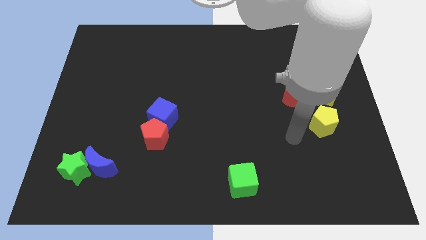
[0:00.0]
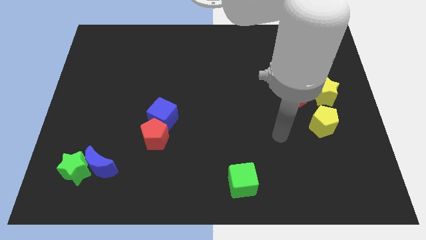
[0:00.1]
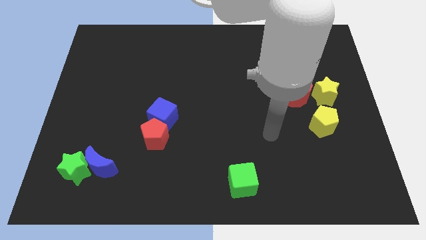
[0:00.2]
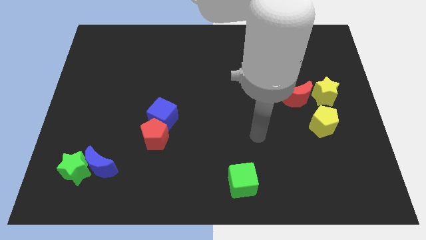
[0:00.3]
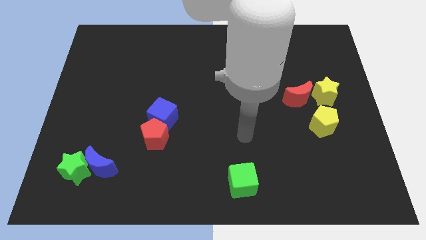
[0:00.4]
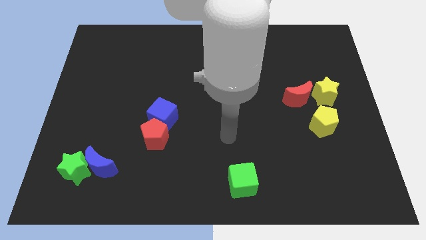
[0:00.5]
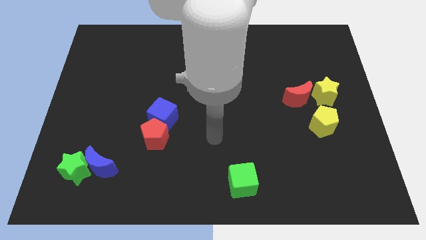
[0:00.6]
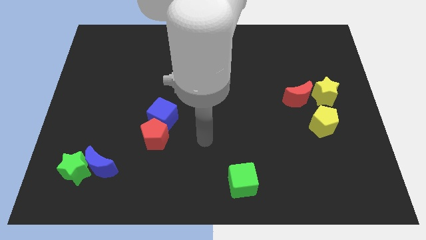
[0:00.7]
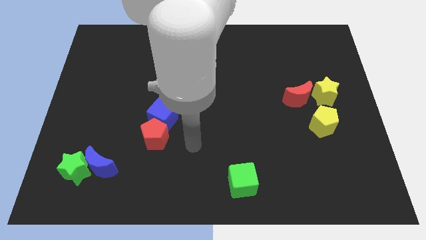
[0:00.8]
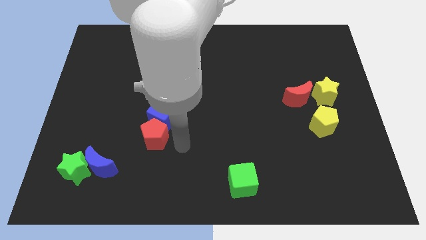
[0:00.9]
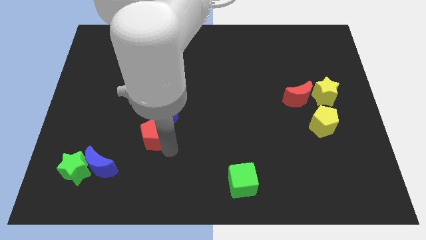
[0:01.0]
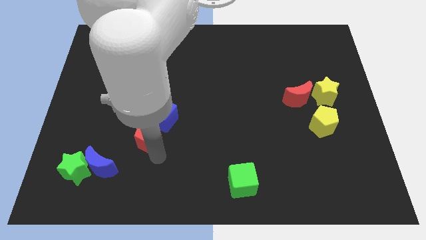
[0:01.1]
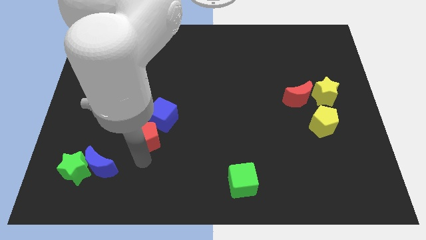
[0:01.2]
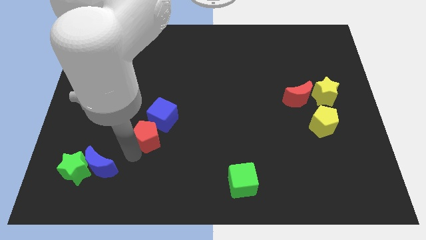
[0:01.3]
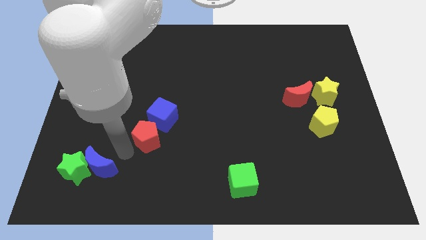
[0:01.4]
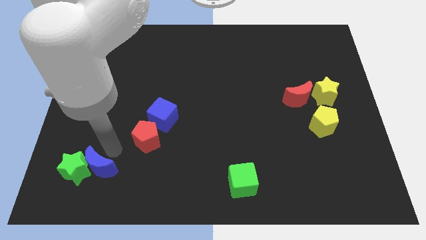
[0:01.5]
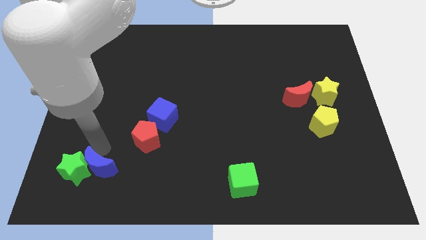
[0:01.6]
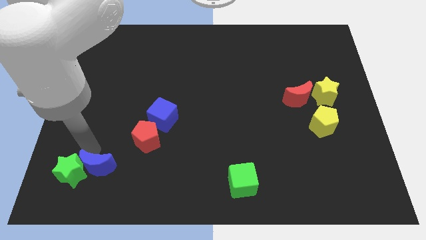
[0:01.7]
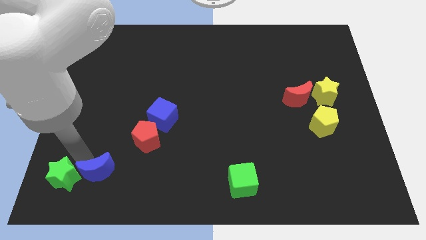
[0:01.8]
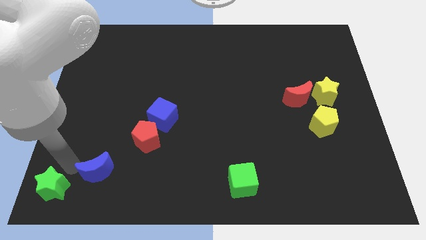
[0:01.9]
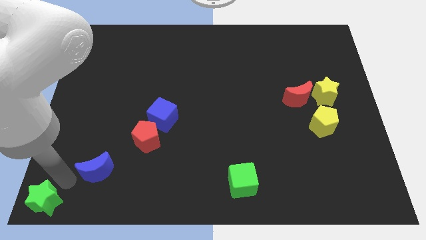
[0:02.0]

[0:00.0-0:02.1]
move the blue moon away from the green star

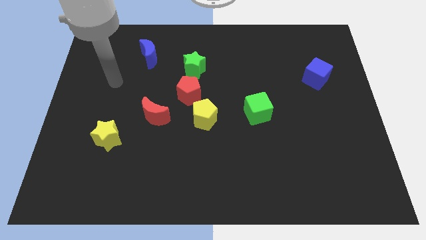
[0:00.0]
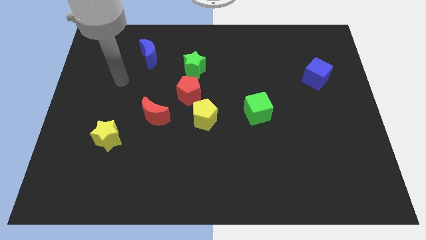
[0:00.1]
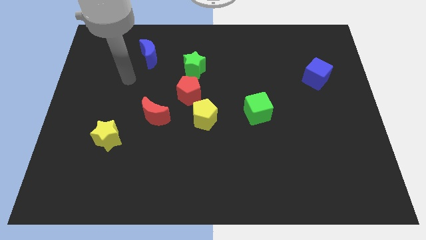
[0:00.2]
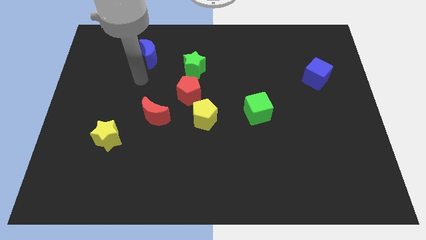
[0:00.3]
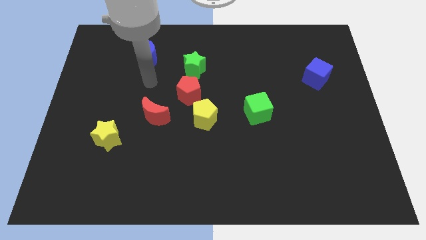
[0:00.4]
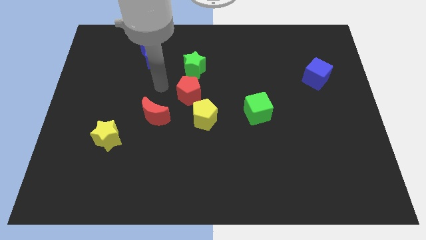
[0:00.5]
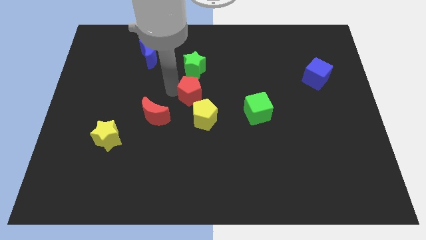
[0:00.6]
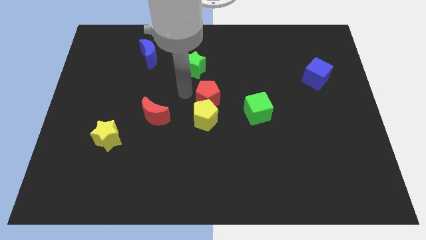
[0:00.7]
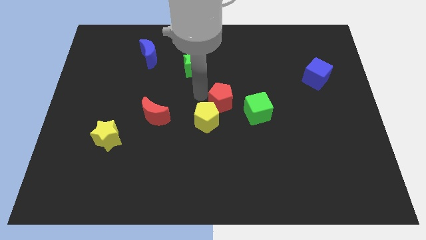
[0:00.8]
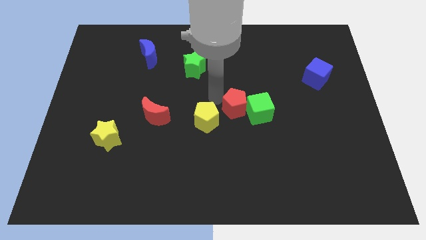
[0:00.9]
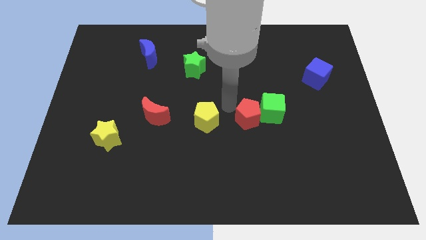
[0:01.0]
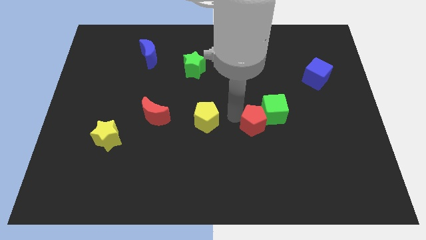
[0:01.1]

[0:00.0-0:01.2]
separate the yellow pentagon from the red pentagon

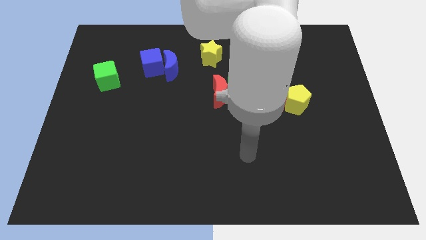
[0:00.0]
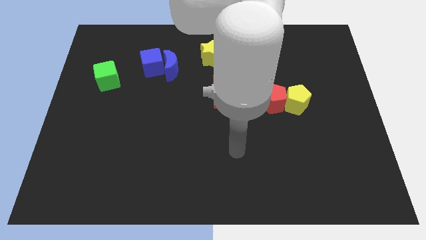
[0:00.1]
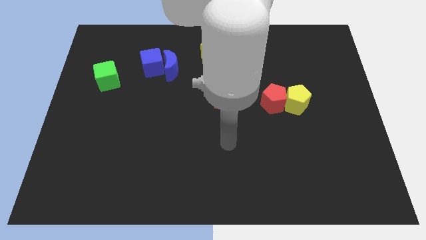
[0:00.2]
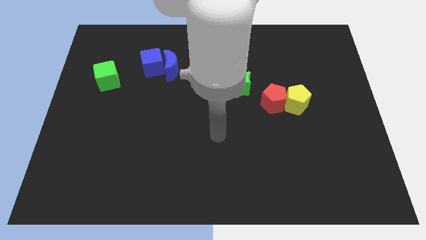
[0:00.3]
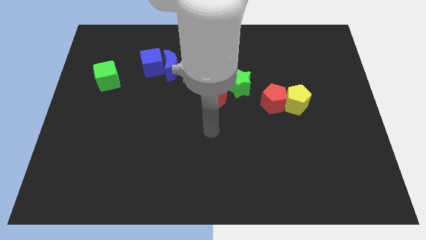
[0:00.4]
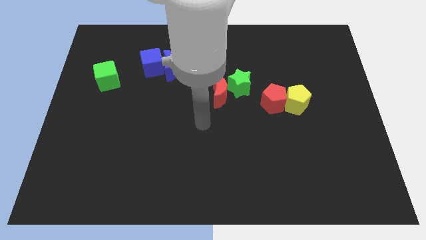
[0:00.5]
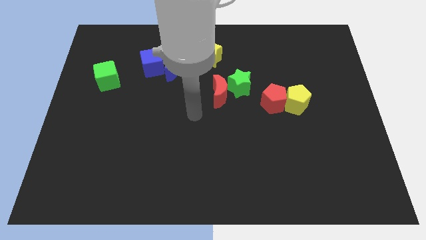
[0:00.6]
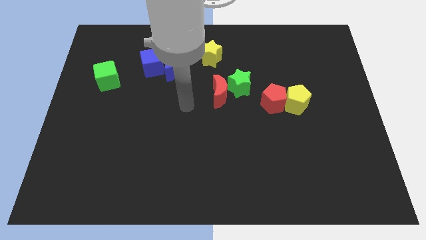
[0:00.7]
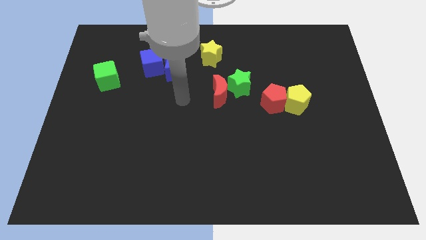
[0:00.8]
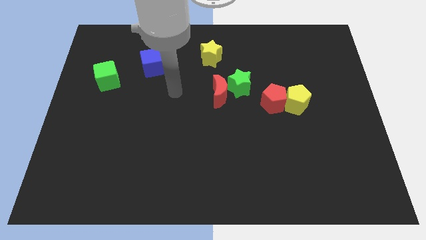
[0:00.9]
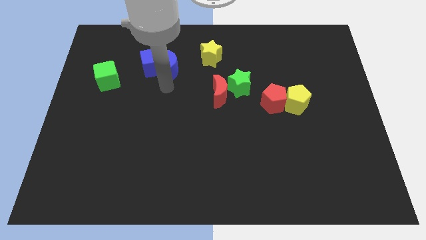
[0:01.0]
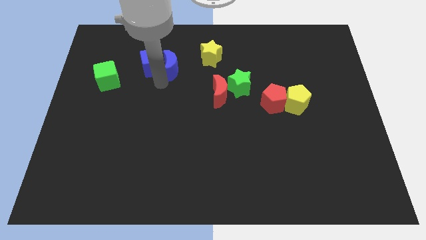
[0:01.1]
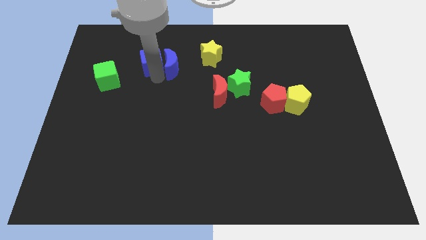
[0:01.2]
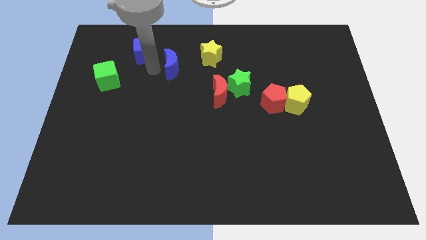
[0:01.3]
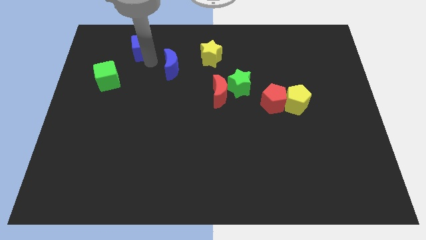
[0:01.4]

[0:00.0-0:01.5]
separate the blue moon from the blue cube

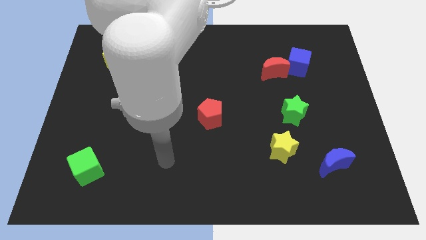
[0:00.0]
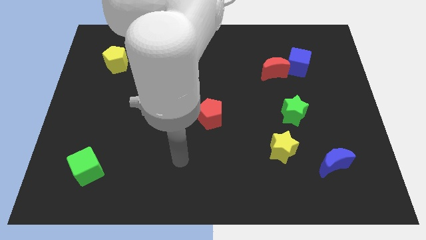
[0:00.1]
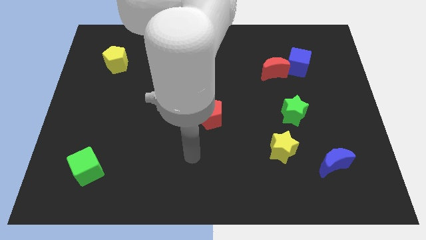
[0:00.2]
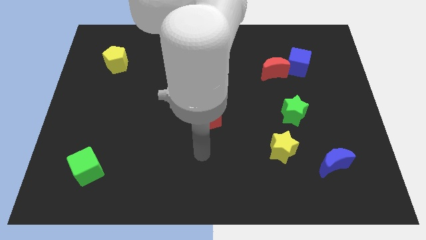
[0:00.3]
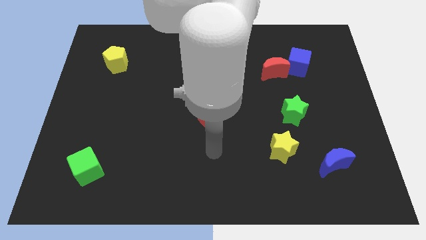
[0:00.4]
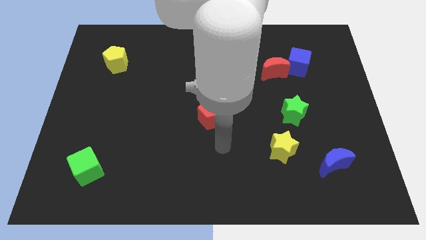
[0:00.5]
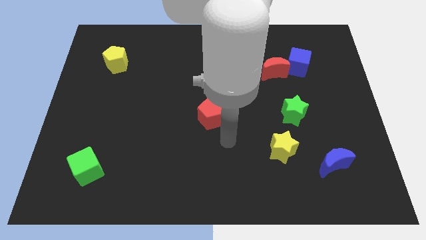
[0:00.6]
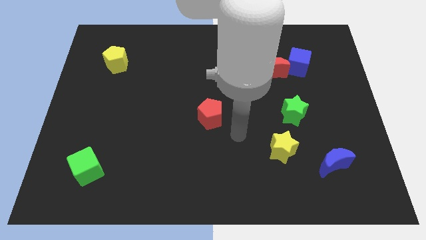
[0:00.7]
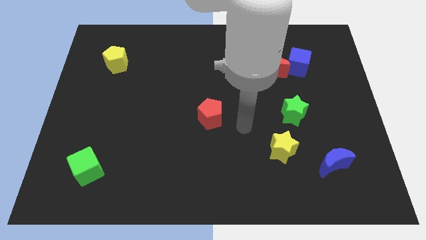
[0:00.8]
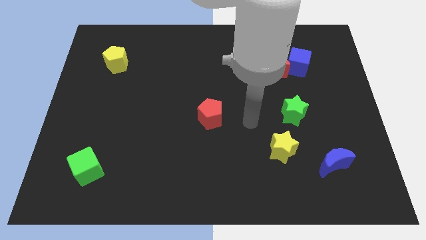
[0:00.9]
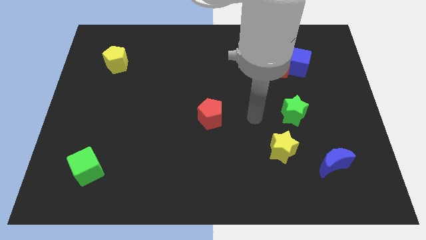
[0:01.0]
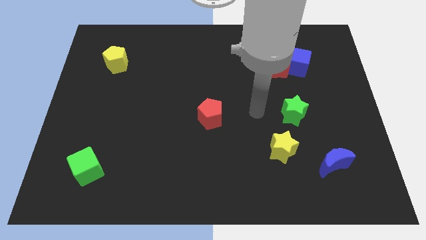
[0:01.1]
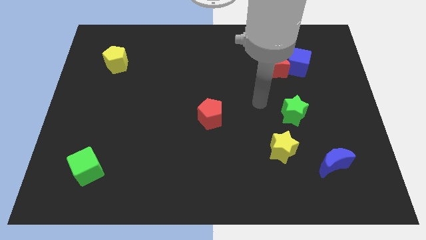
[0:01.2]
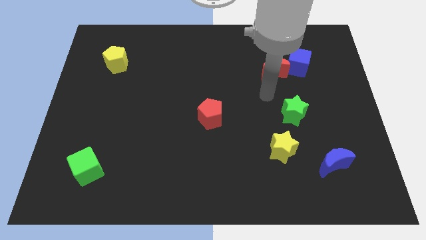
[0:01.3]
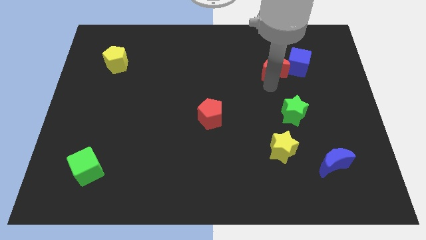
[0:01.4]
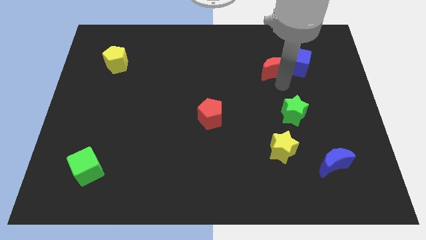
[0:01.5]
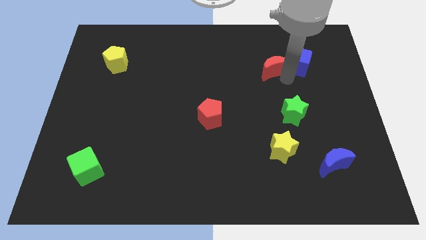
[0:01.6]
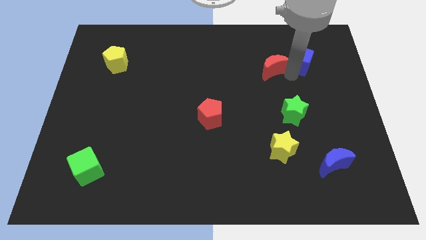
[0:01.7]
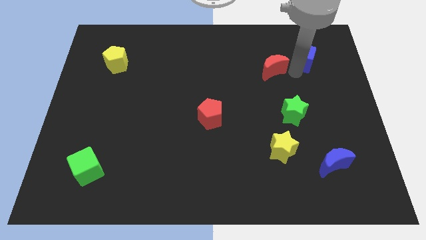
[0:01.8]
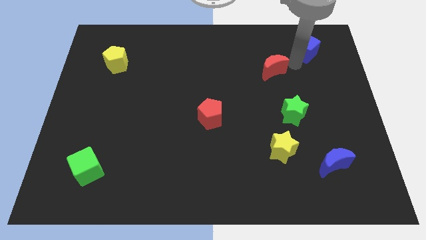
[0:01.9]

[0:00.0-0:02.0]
pull the red moon apart from the blue cube

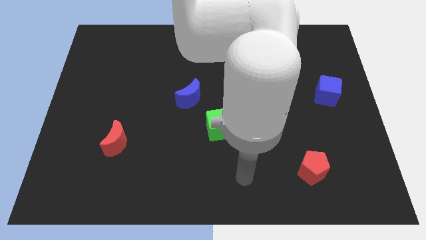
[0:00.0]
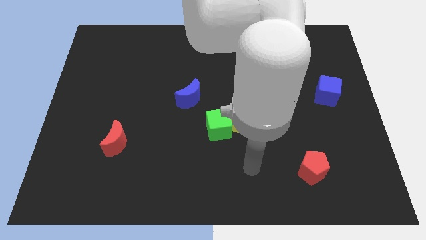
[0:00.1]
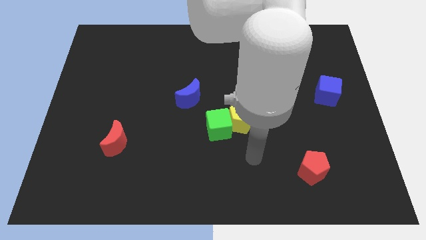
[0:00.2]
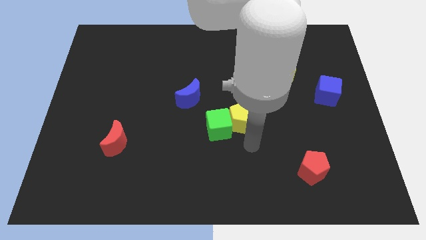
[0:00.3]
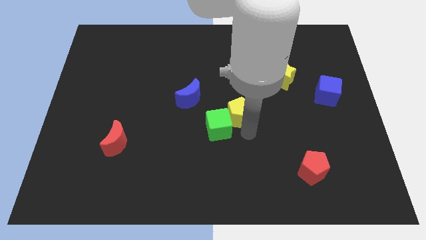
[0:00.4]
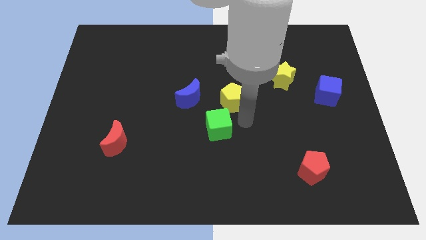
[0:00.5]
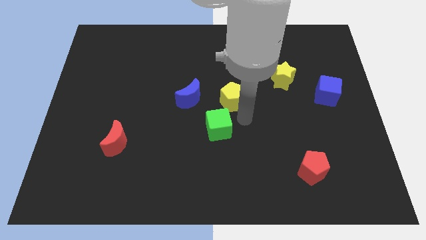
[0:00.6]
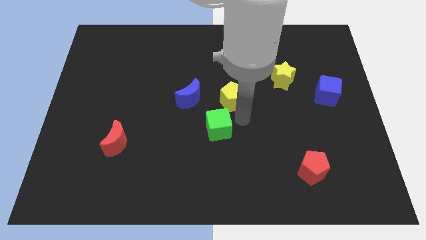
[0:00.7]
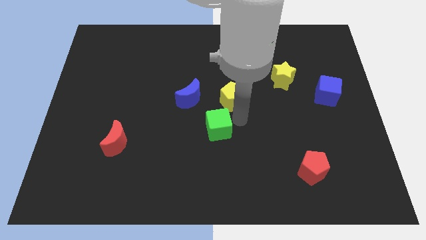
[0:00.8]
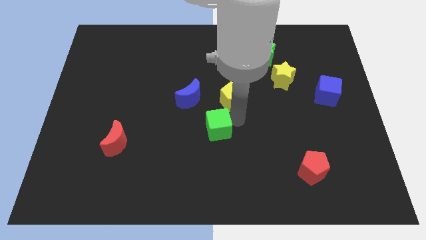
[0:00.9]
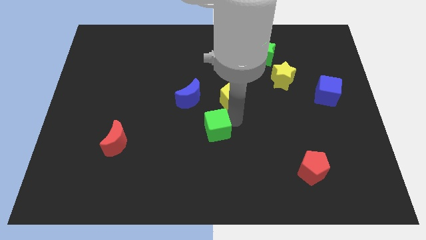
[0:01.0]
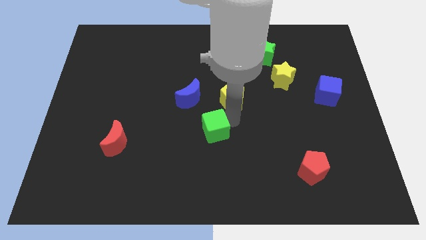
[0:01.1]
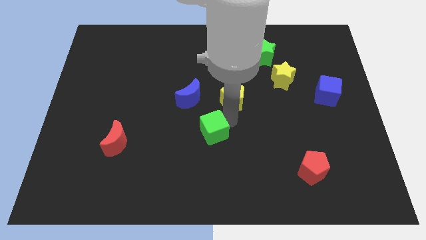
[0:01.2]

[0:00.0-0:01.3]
move the green cube away from the yellow pentagon

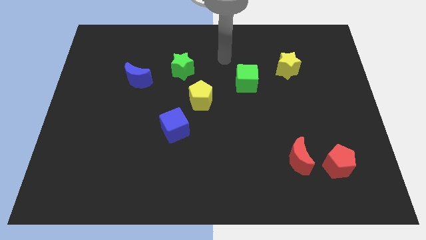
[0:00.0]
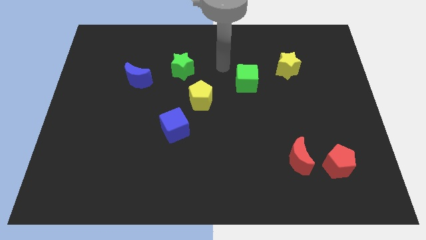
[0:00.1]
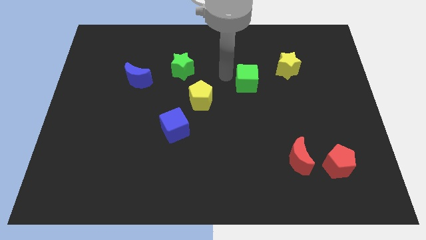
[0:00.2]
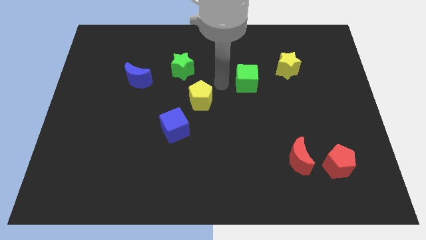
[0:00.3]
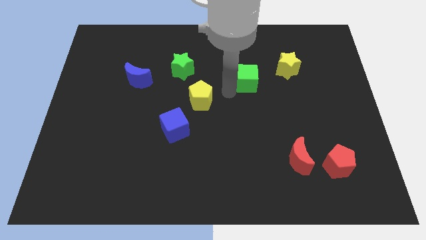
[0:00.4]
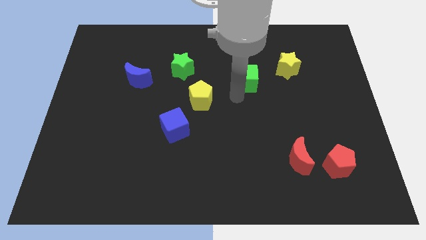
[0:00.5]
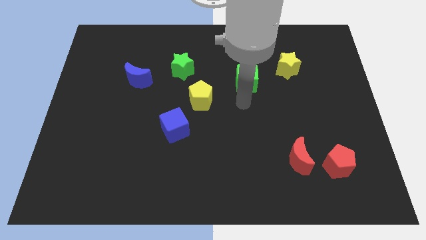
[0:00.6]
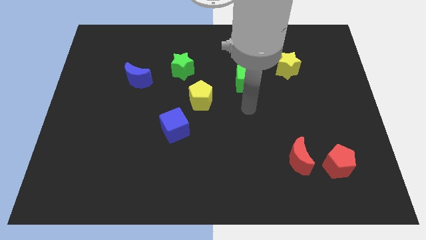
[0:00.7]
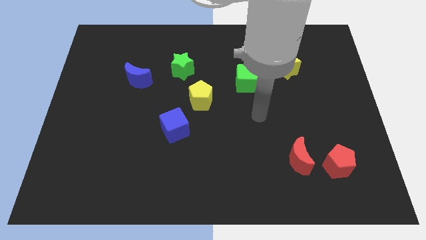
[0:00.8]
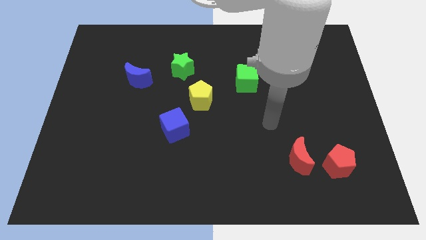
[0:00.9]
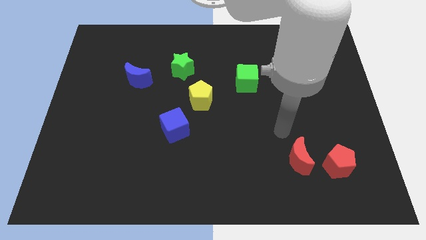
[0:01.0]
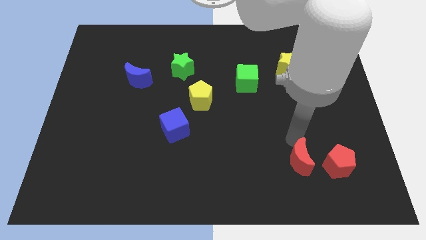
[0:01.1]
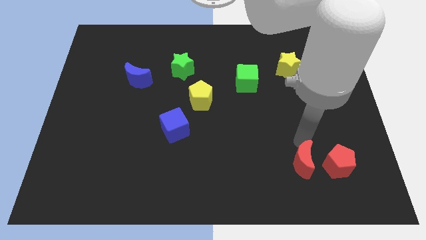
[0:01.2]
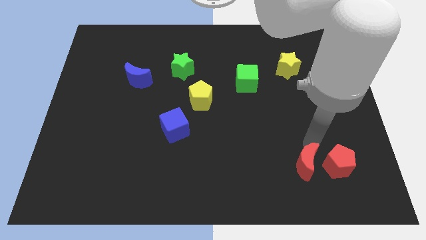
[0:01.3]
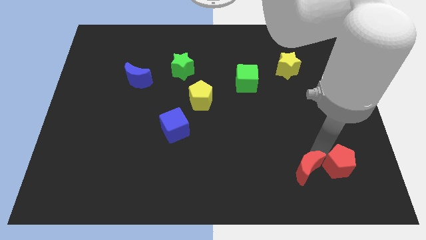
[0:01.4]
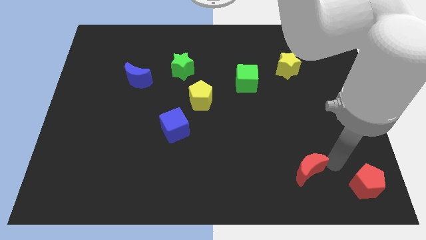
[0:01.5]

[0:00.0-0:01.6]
pull the red moon apart from the red pentagon
